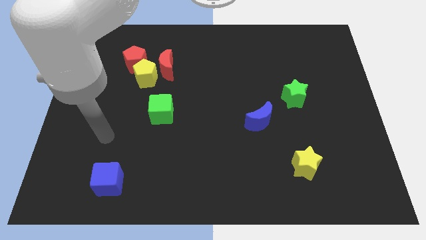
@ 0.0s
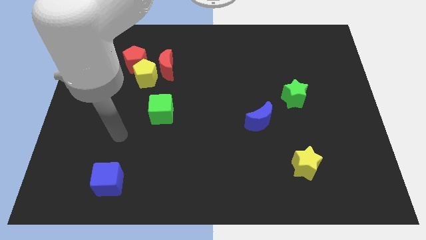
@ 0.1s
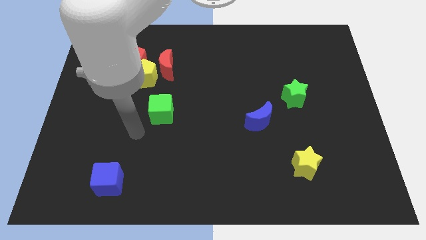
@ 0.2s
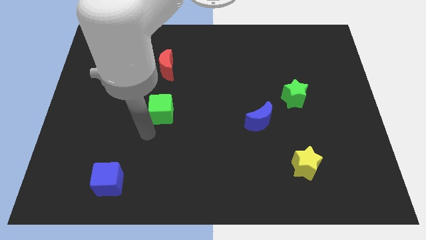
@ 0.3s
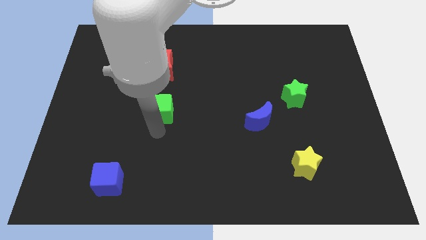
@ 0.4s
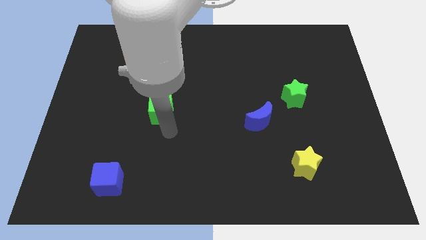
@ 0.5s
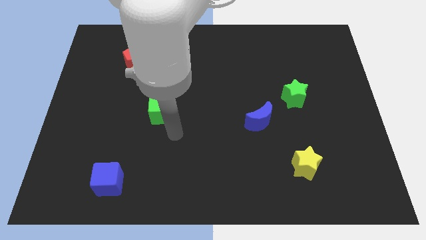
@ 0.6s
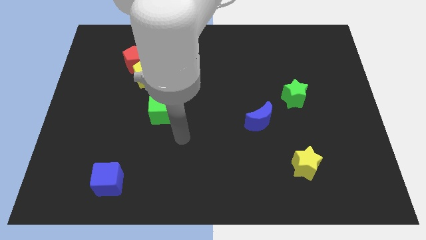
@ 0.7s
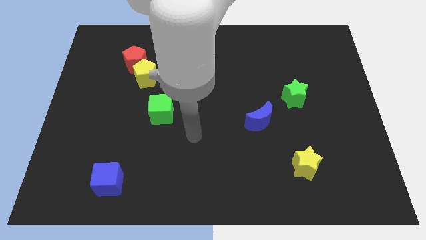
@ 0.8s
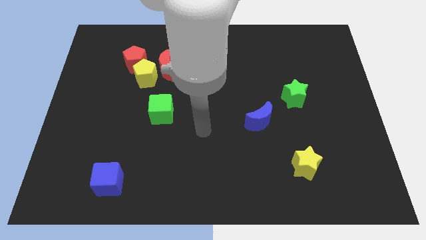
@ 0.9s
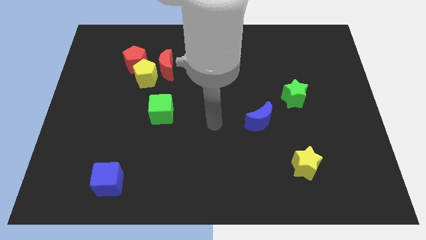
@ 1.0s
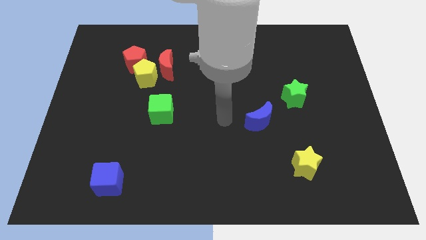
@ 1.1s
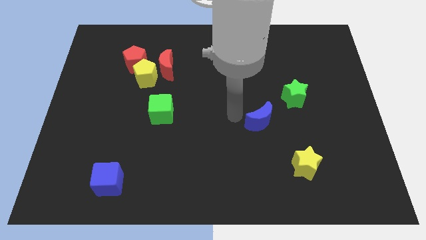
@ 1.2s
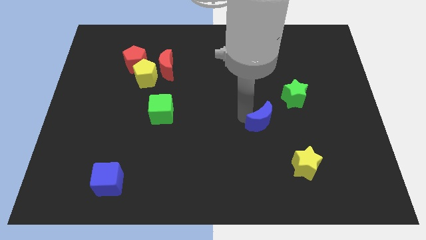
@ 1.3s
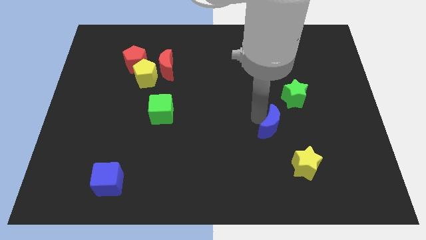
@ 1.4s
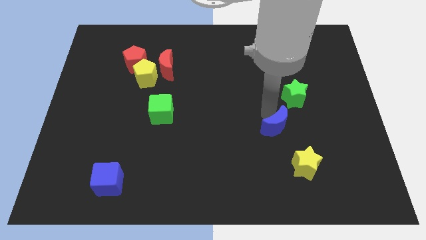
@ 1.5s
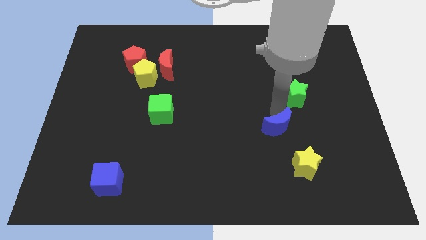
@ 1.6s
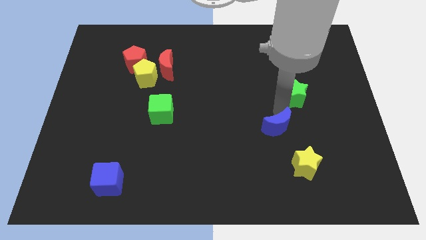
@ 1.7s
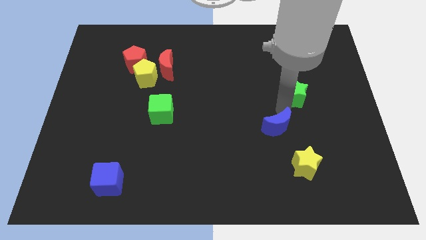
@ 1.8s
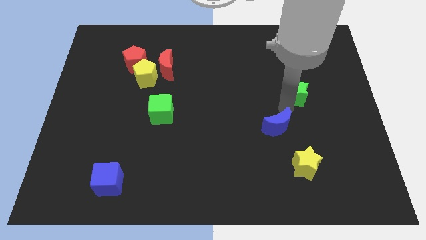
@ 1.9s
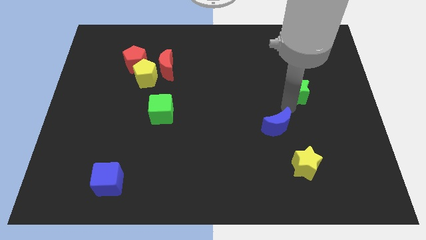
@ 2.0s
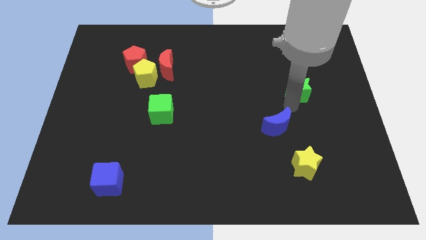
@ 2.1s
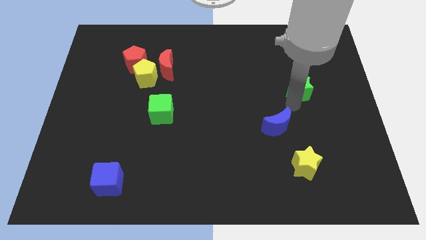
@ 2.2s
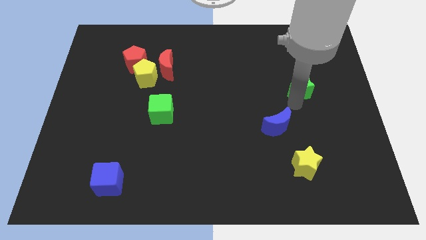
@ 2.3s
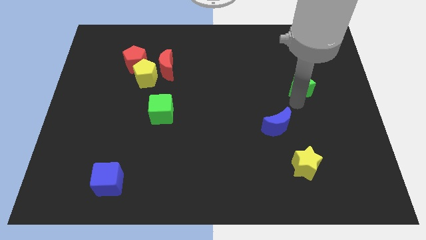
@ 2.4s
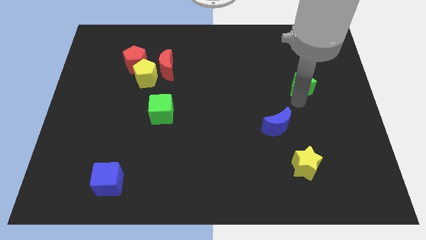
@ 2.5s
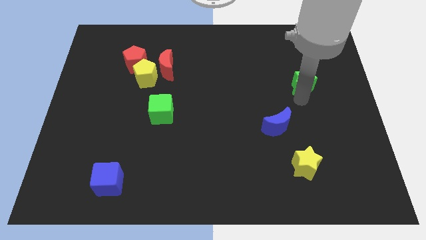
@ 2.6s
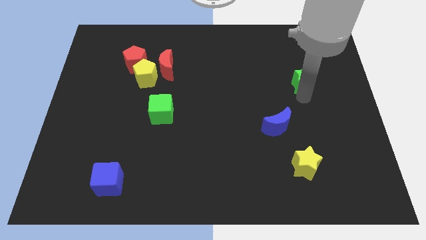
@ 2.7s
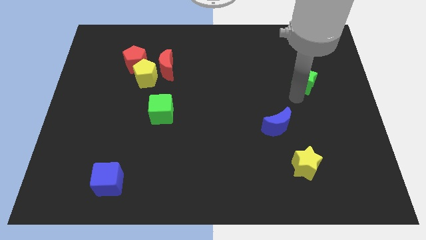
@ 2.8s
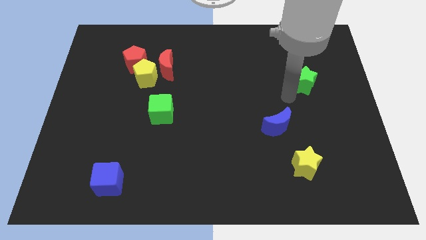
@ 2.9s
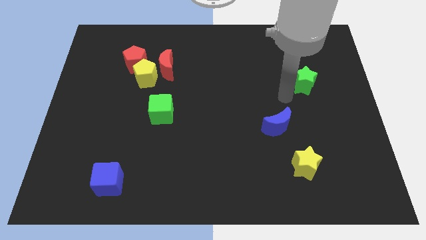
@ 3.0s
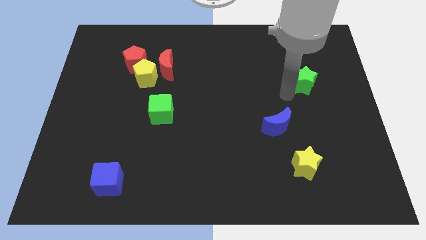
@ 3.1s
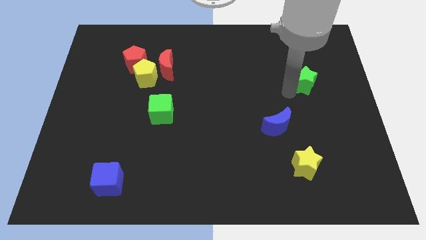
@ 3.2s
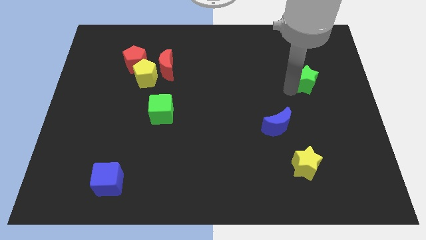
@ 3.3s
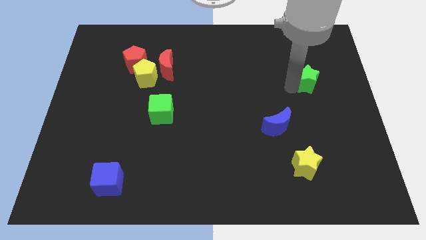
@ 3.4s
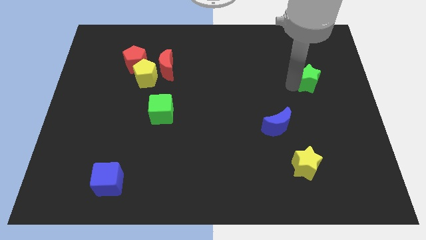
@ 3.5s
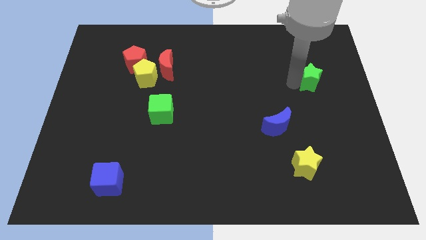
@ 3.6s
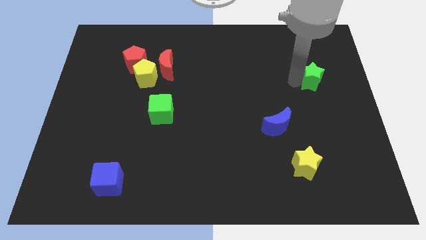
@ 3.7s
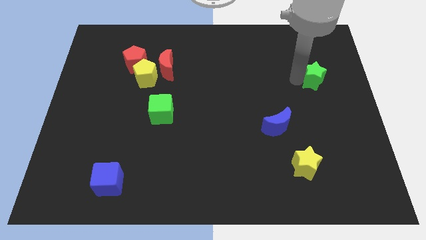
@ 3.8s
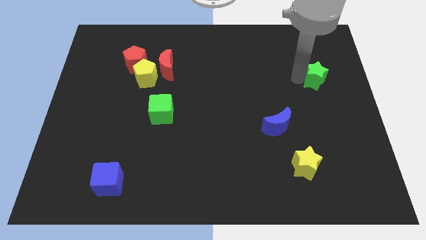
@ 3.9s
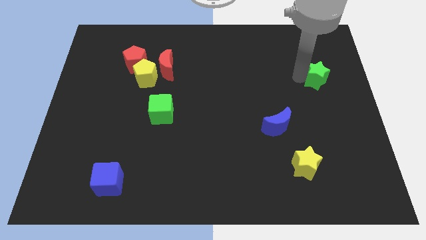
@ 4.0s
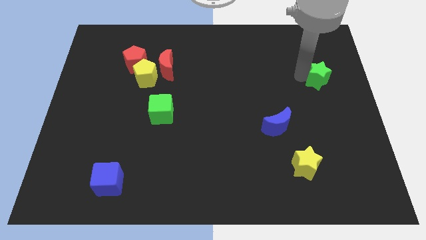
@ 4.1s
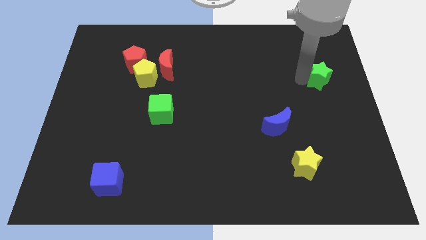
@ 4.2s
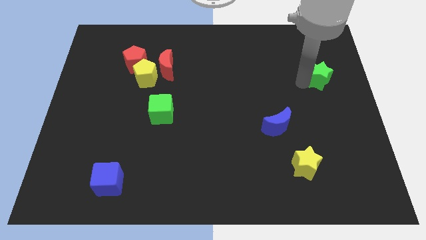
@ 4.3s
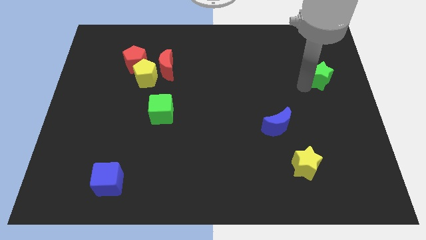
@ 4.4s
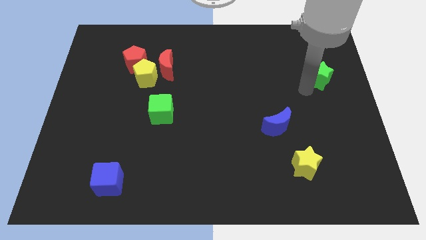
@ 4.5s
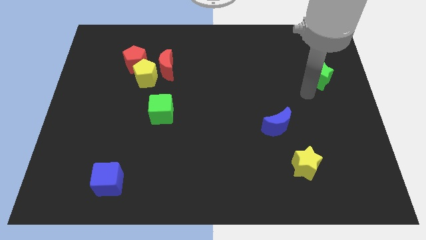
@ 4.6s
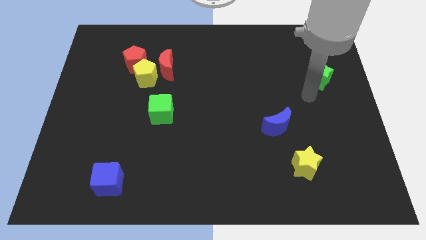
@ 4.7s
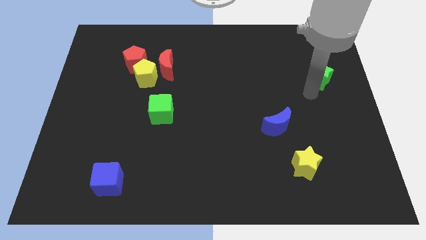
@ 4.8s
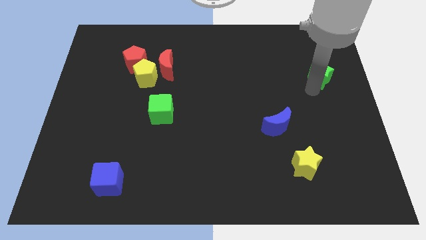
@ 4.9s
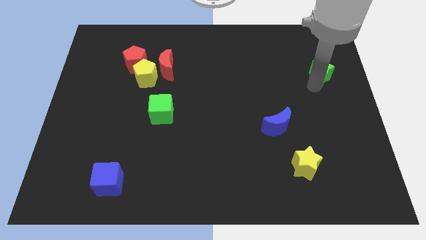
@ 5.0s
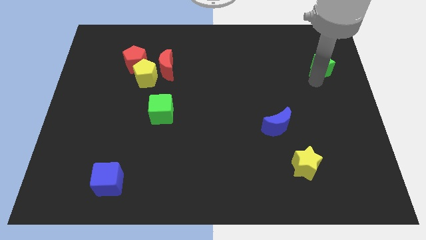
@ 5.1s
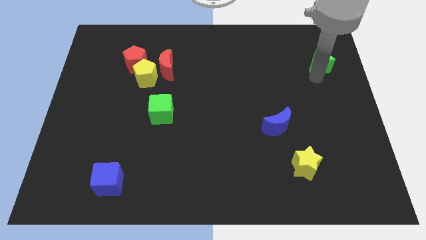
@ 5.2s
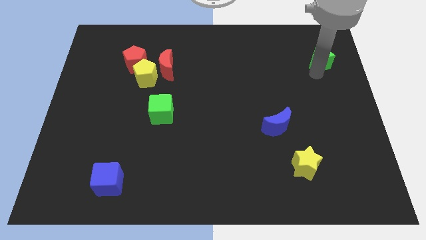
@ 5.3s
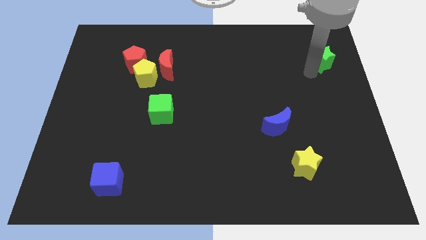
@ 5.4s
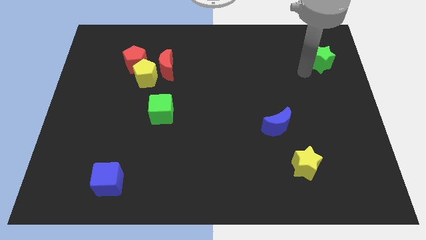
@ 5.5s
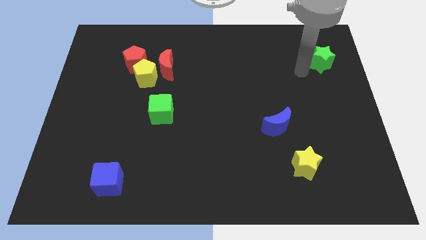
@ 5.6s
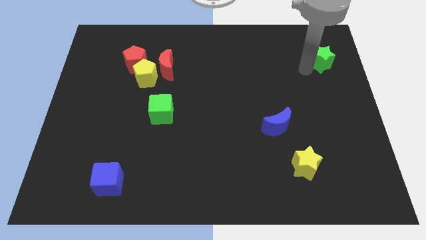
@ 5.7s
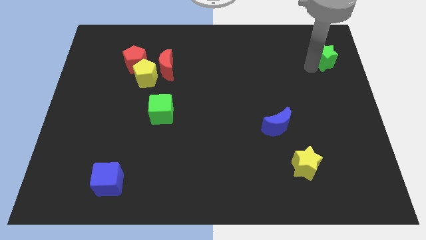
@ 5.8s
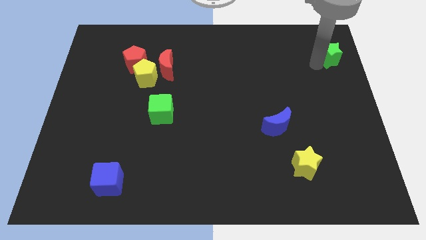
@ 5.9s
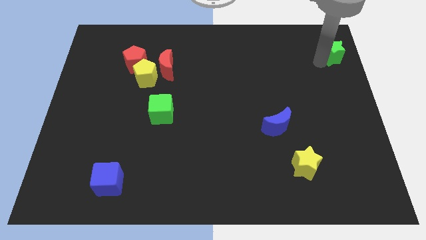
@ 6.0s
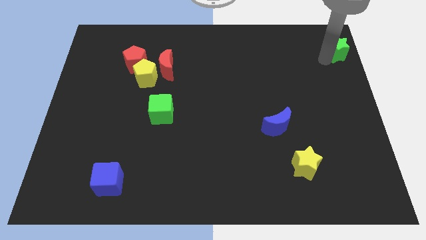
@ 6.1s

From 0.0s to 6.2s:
slide the green star to the top right
